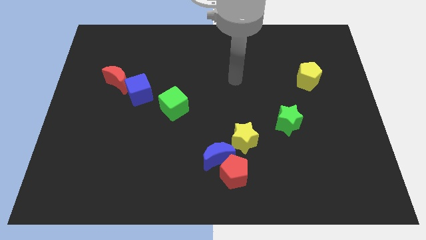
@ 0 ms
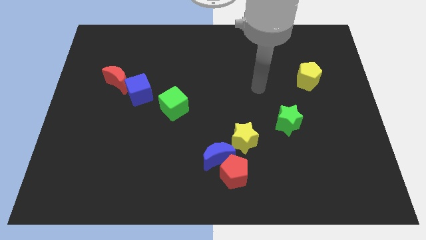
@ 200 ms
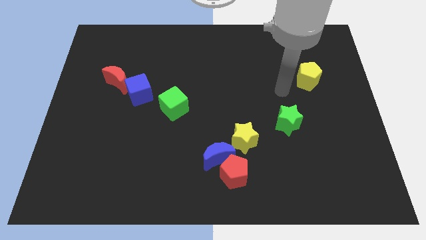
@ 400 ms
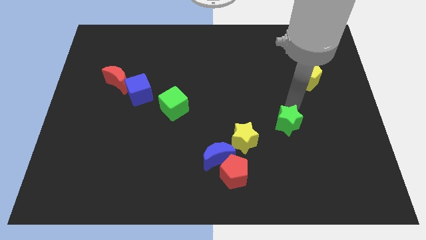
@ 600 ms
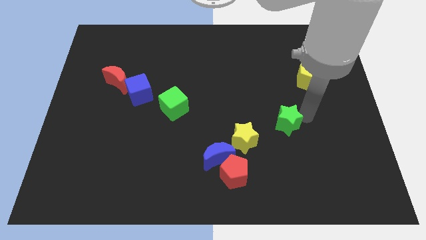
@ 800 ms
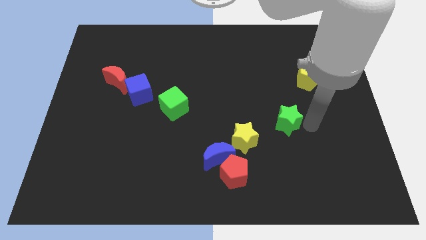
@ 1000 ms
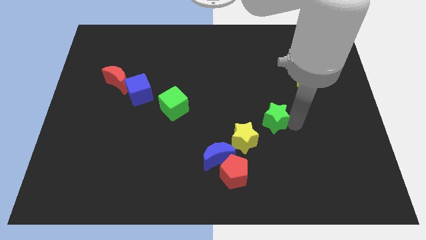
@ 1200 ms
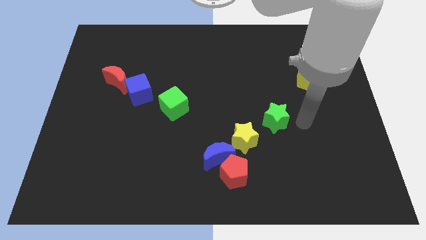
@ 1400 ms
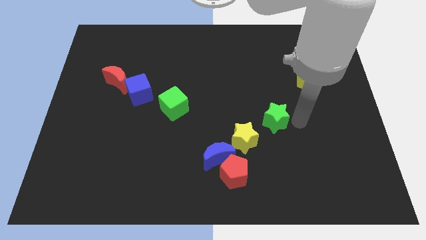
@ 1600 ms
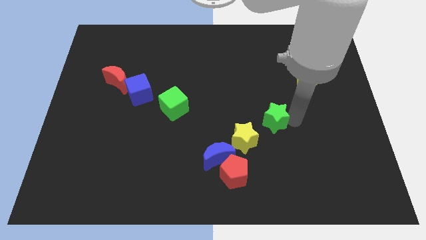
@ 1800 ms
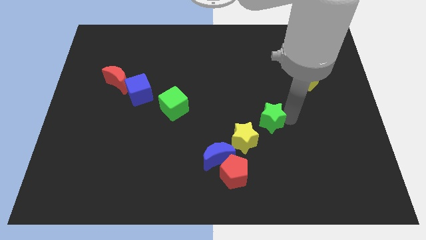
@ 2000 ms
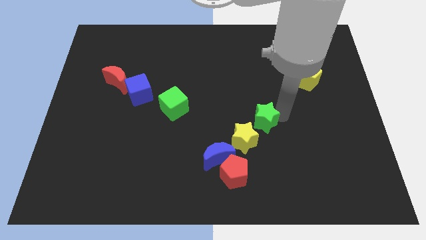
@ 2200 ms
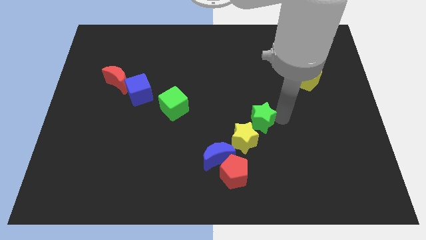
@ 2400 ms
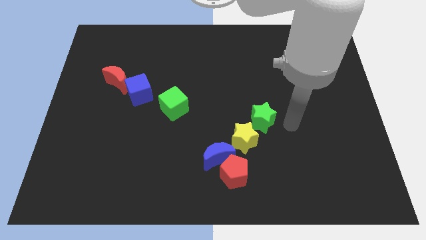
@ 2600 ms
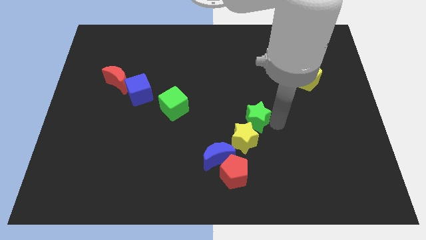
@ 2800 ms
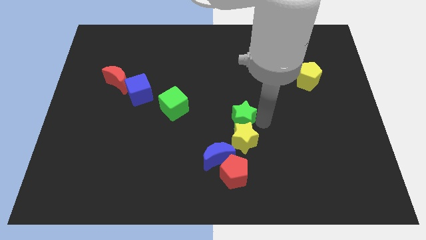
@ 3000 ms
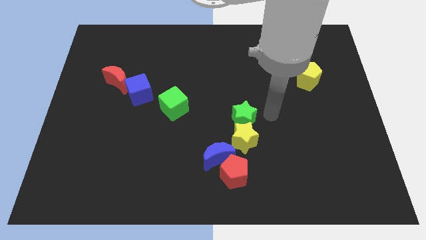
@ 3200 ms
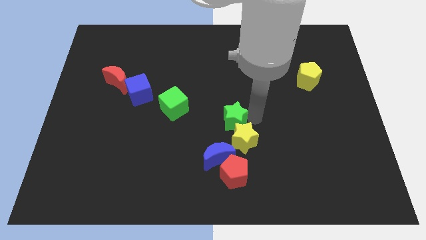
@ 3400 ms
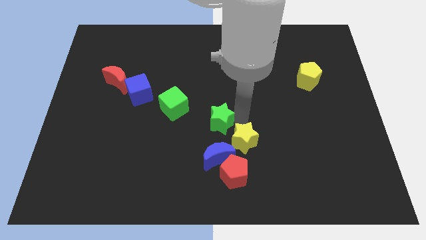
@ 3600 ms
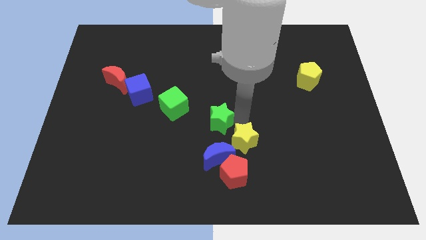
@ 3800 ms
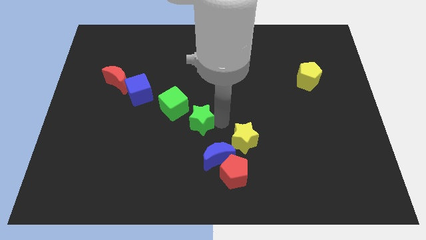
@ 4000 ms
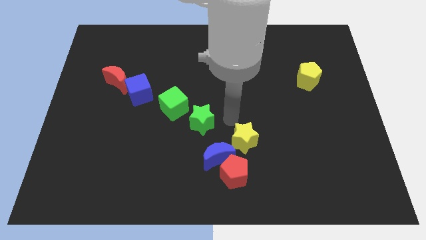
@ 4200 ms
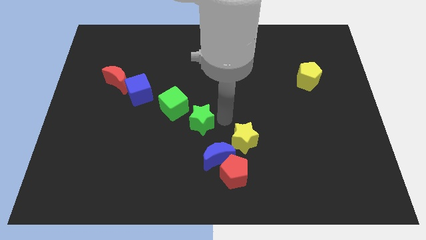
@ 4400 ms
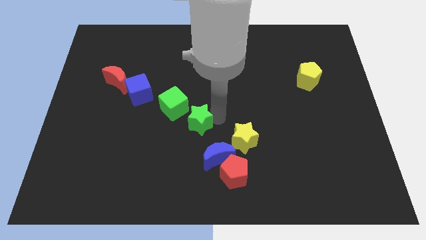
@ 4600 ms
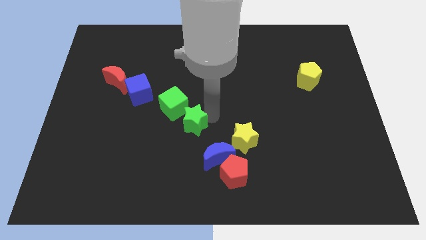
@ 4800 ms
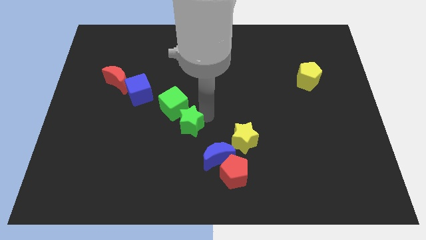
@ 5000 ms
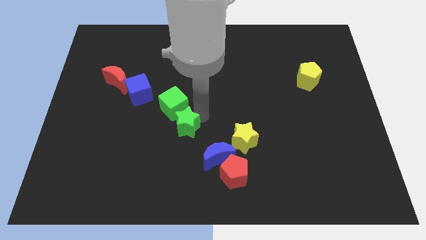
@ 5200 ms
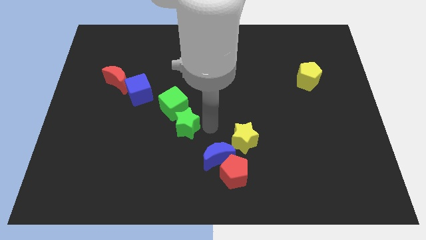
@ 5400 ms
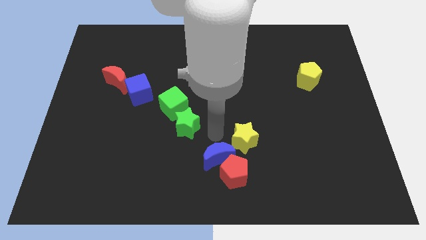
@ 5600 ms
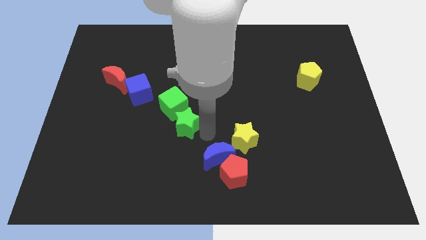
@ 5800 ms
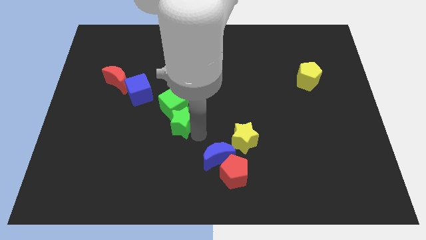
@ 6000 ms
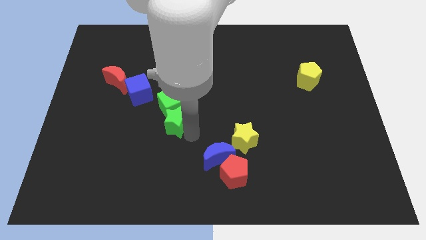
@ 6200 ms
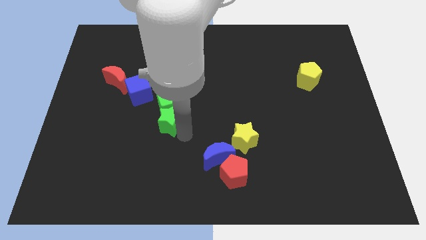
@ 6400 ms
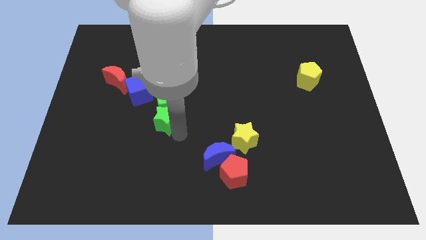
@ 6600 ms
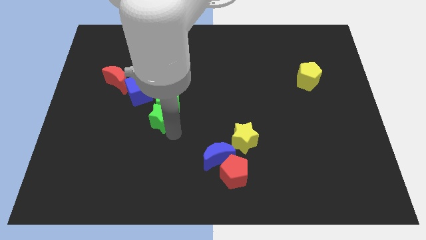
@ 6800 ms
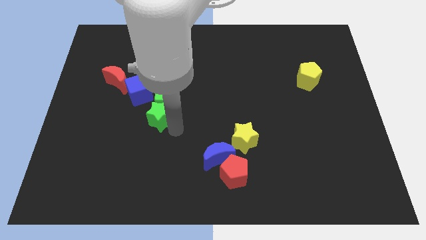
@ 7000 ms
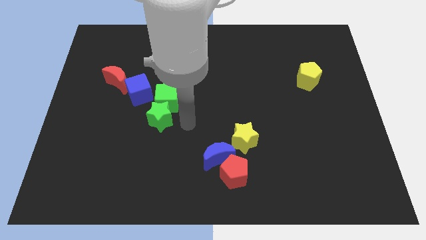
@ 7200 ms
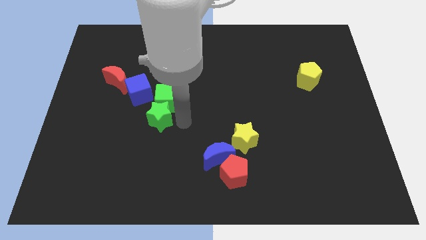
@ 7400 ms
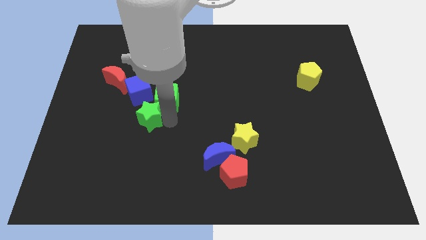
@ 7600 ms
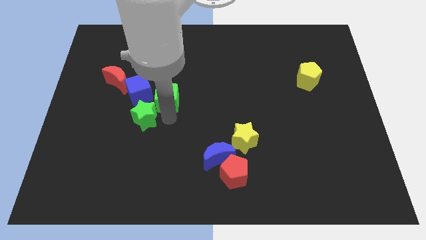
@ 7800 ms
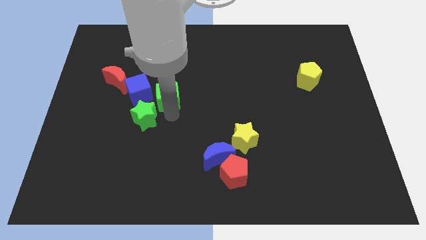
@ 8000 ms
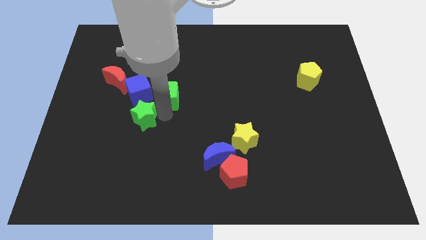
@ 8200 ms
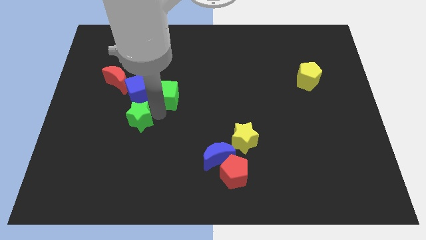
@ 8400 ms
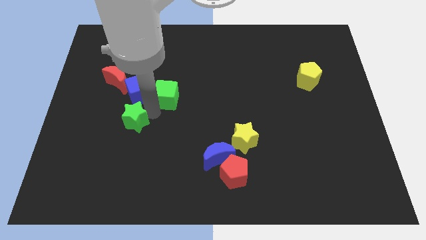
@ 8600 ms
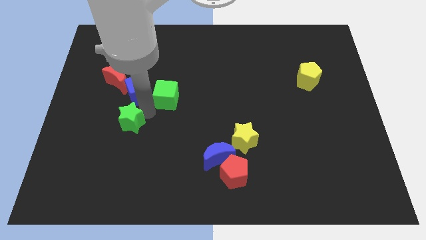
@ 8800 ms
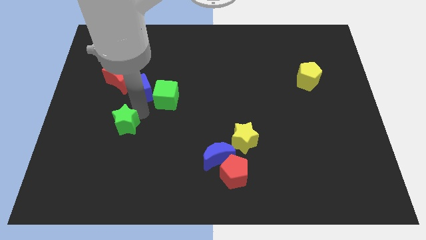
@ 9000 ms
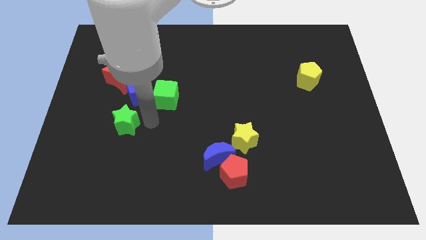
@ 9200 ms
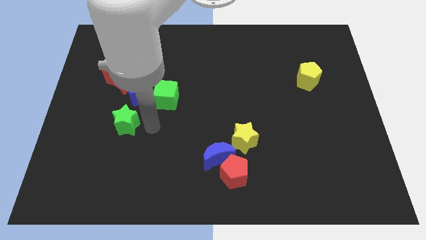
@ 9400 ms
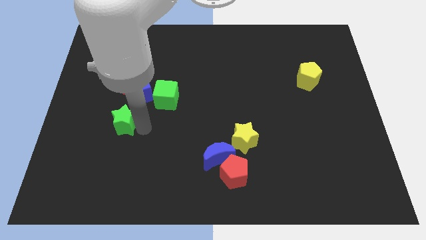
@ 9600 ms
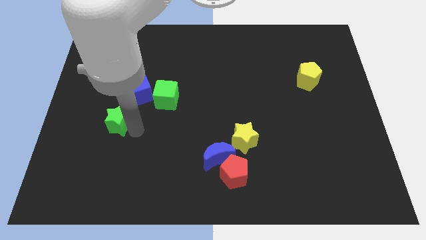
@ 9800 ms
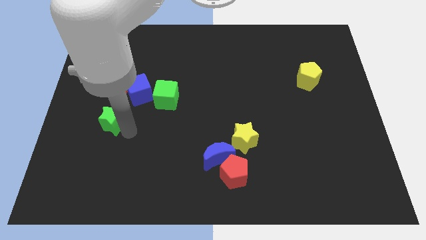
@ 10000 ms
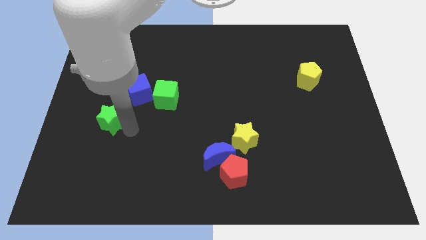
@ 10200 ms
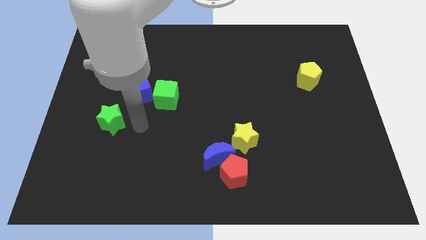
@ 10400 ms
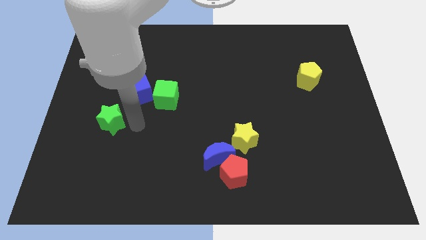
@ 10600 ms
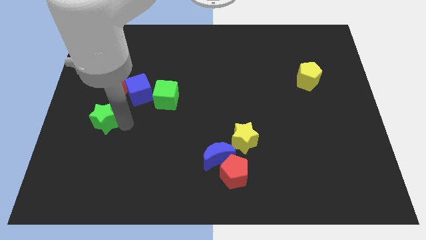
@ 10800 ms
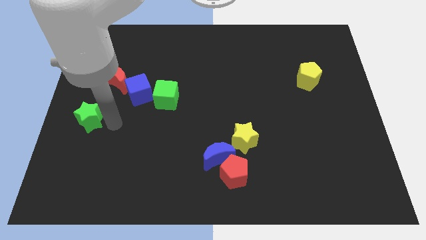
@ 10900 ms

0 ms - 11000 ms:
put the green star to the left side of the board

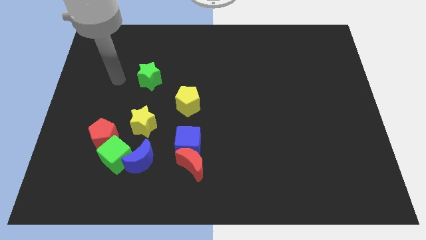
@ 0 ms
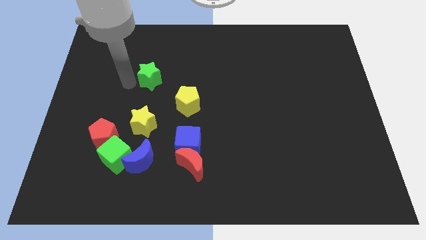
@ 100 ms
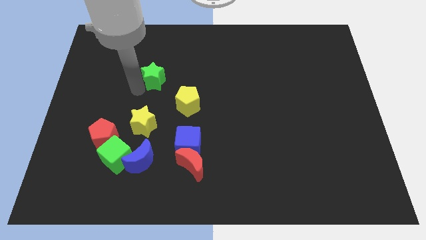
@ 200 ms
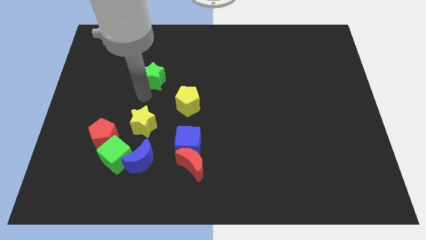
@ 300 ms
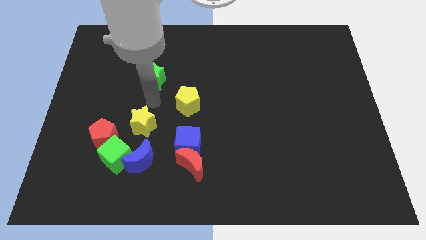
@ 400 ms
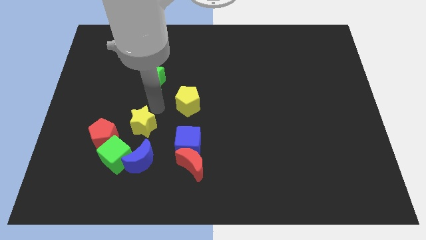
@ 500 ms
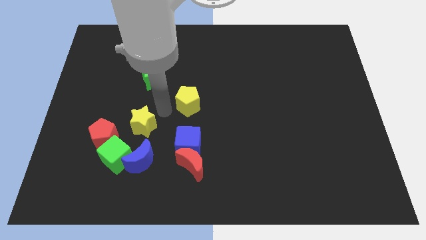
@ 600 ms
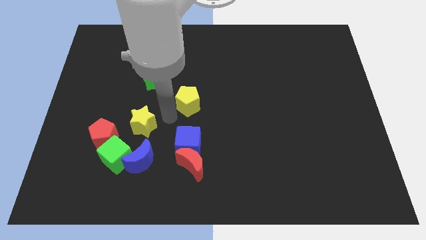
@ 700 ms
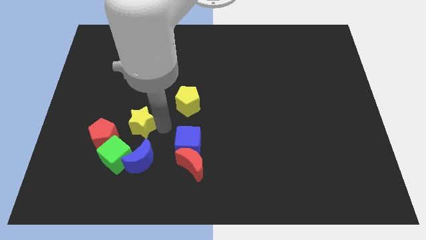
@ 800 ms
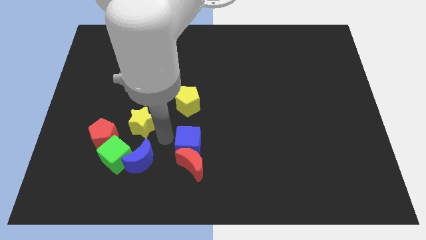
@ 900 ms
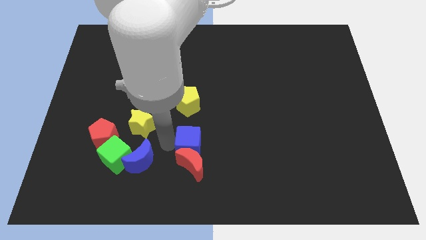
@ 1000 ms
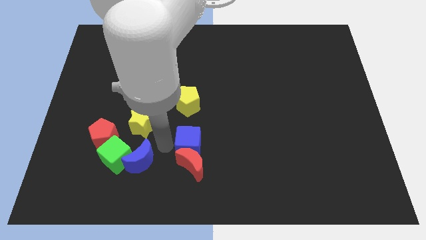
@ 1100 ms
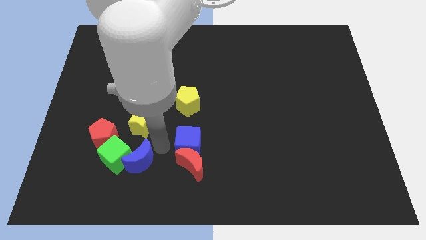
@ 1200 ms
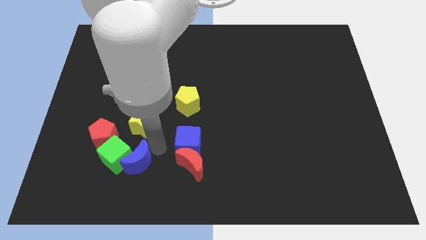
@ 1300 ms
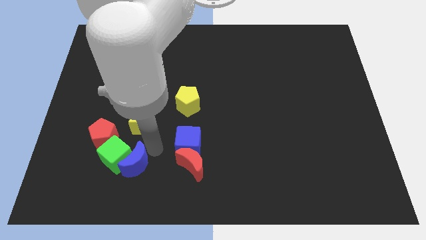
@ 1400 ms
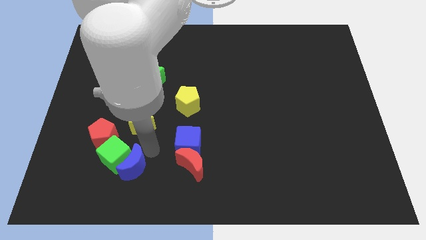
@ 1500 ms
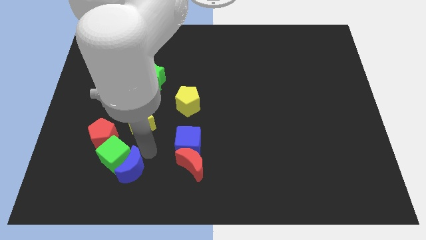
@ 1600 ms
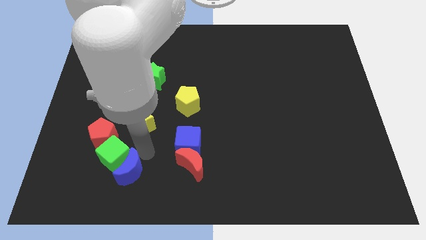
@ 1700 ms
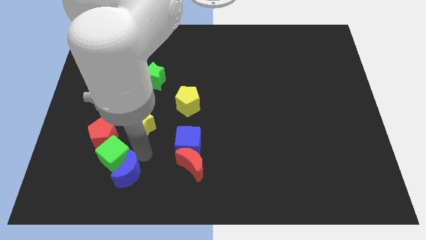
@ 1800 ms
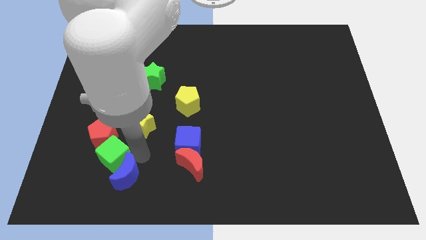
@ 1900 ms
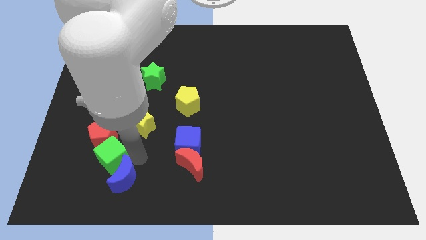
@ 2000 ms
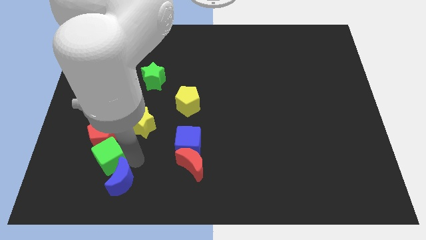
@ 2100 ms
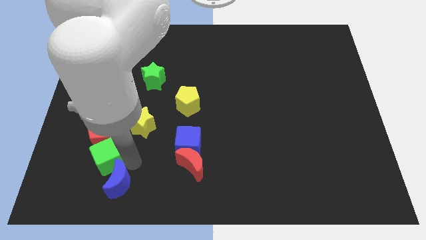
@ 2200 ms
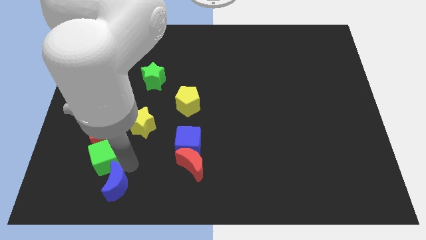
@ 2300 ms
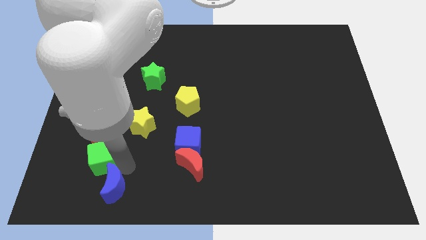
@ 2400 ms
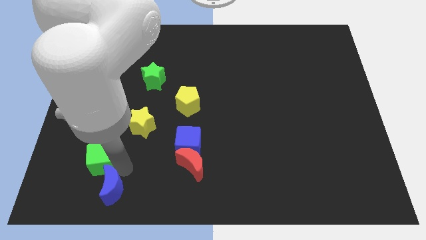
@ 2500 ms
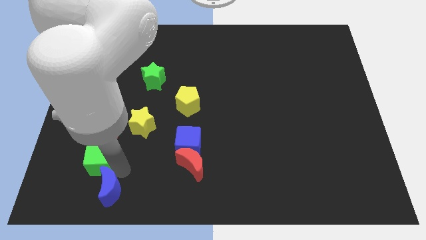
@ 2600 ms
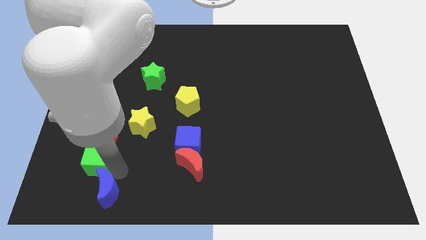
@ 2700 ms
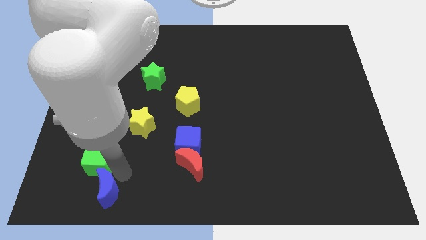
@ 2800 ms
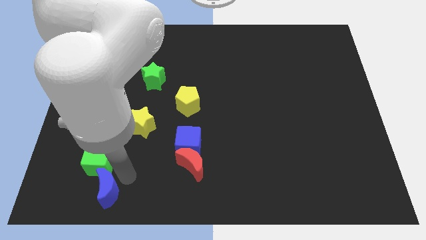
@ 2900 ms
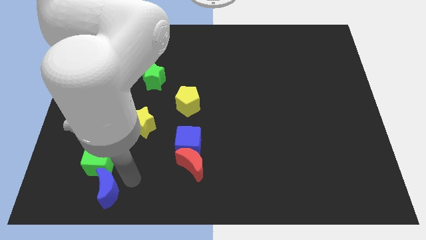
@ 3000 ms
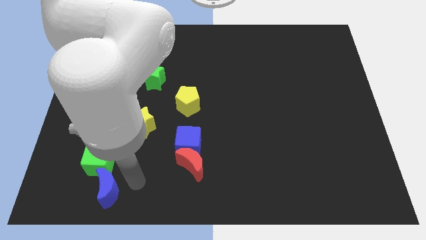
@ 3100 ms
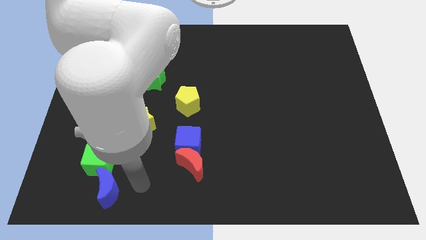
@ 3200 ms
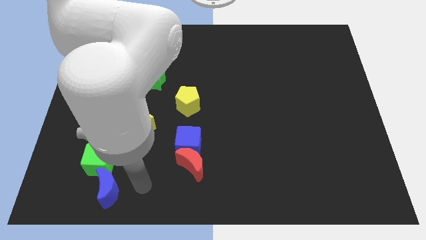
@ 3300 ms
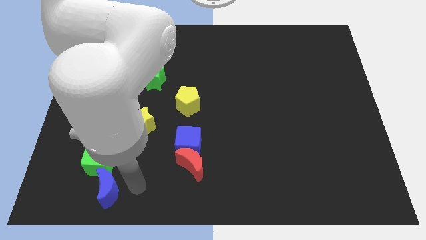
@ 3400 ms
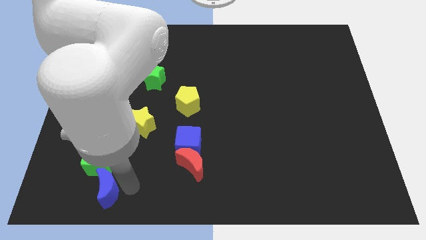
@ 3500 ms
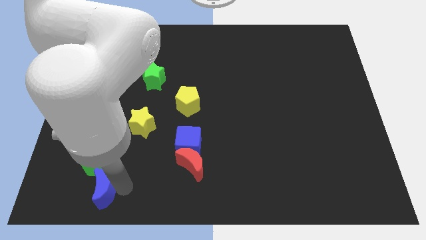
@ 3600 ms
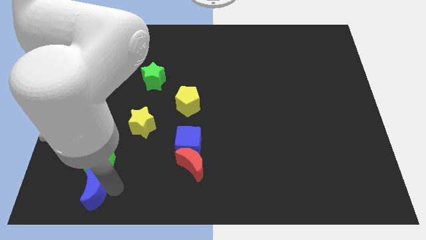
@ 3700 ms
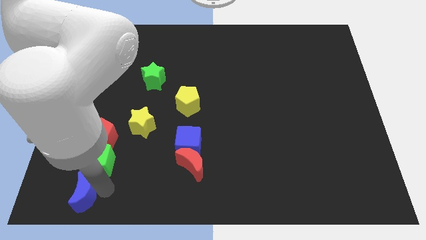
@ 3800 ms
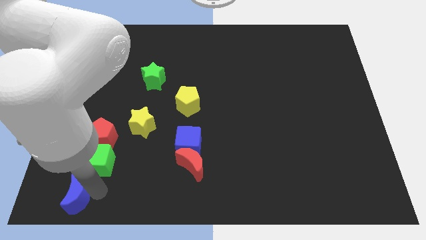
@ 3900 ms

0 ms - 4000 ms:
put the blue moon to the bottom left of the board
